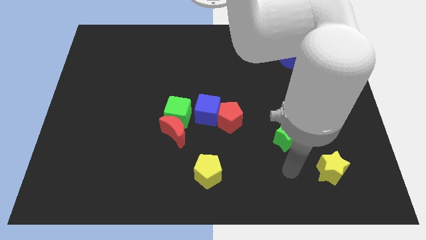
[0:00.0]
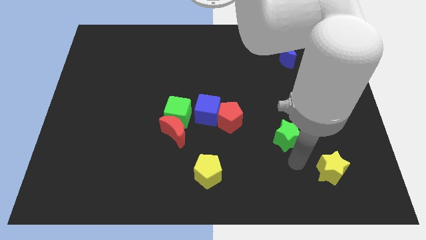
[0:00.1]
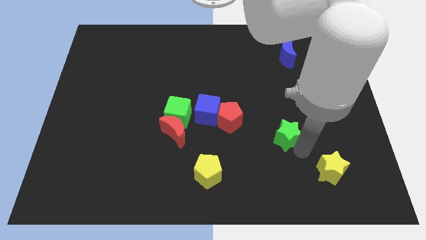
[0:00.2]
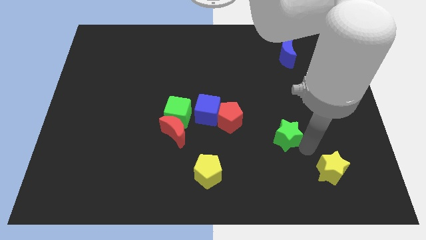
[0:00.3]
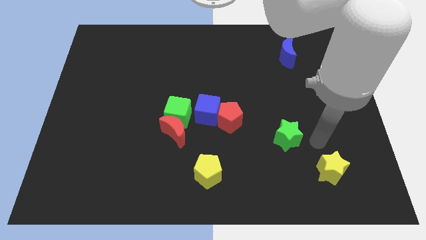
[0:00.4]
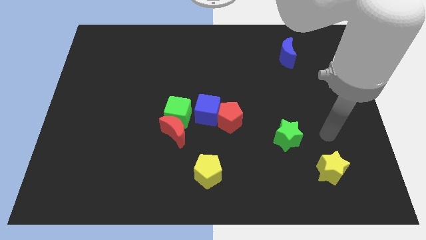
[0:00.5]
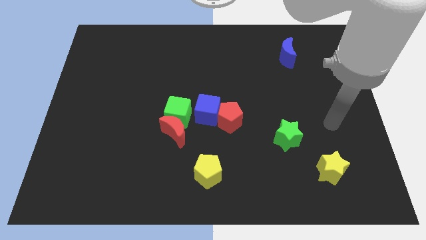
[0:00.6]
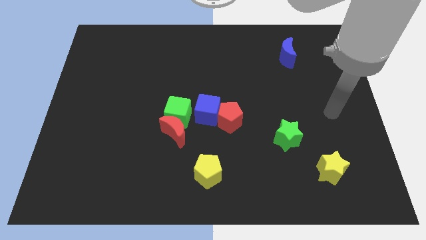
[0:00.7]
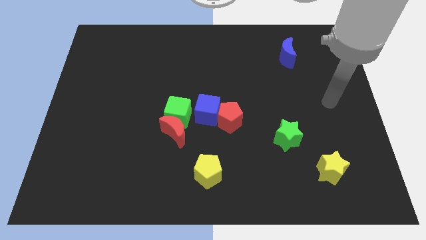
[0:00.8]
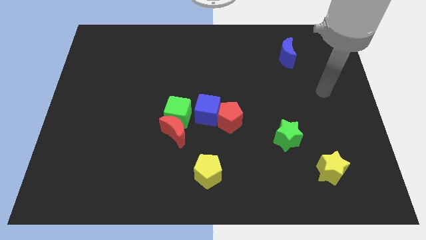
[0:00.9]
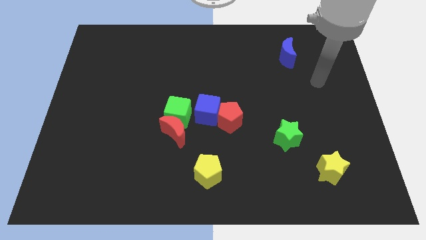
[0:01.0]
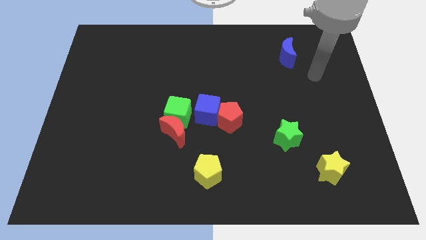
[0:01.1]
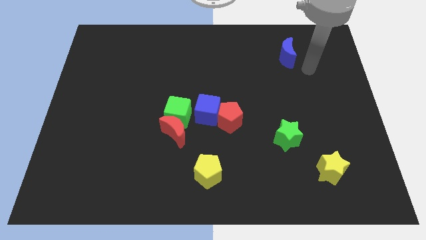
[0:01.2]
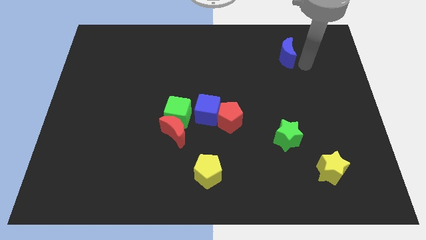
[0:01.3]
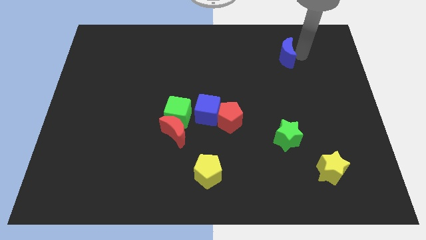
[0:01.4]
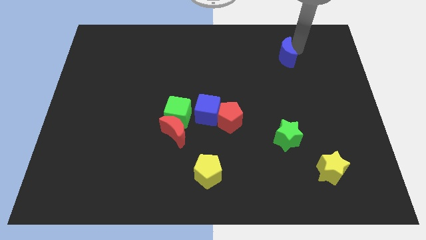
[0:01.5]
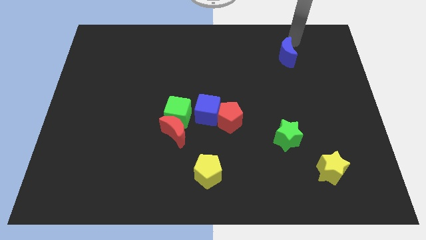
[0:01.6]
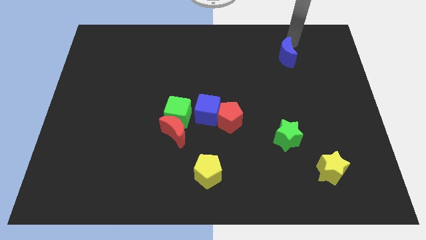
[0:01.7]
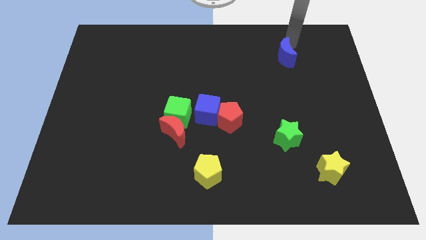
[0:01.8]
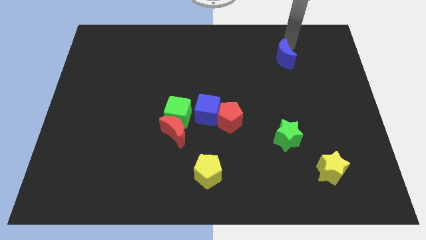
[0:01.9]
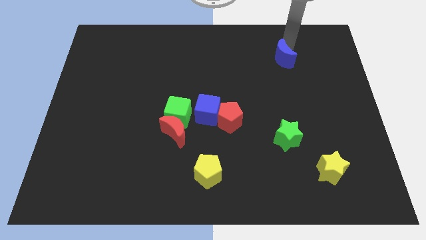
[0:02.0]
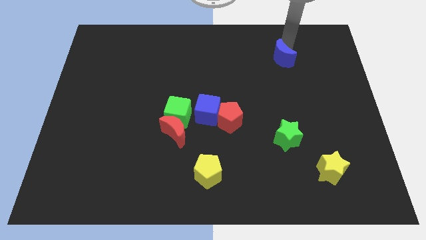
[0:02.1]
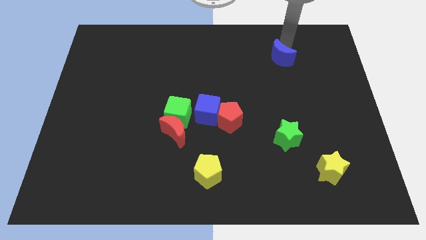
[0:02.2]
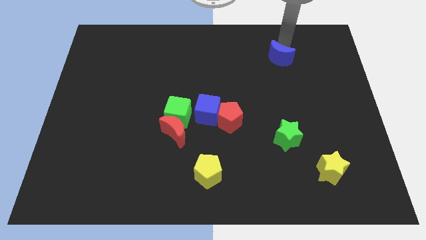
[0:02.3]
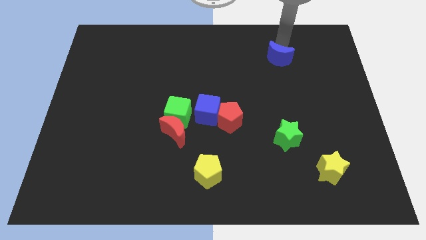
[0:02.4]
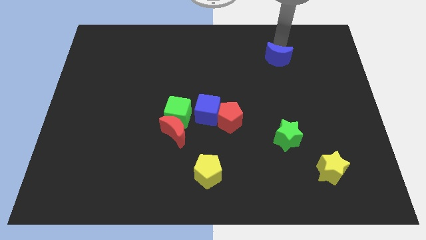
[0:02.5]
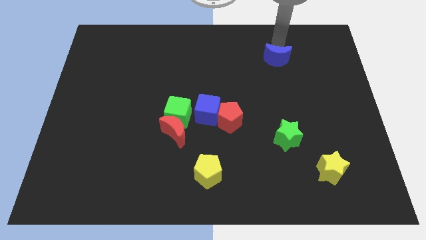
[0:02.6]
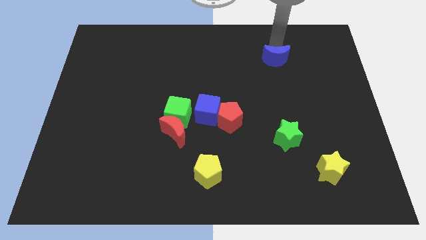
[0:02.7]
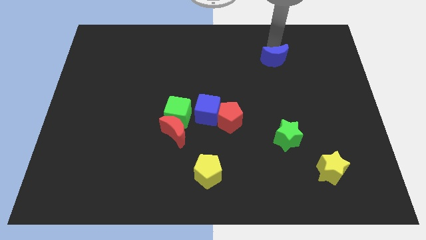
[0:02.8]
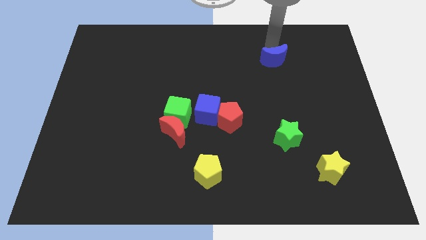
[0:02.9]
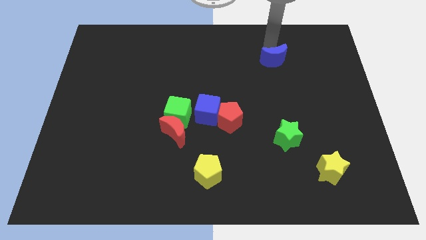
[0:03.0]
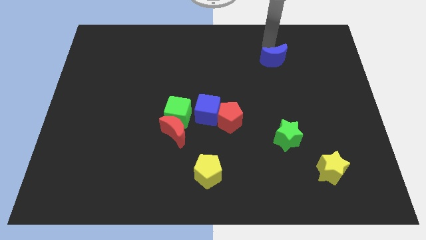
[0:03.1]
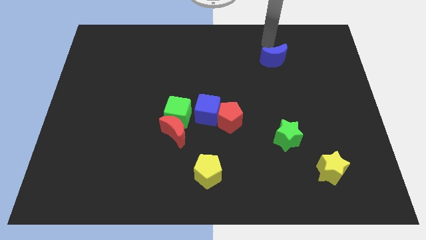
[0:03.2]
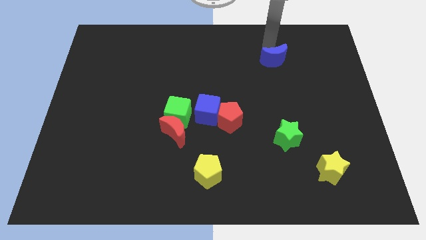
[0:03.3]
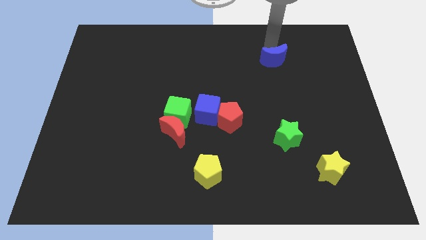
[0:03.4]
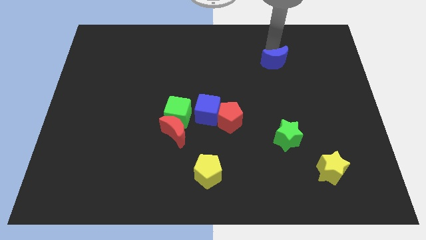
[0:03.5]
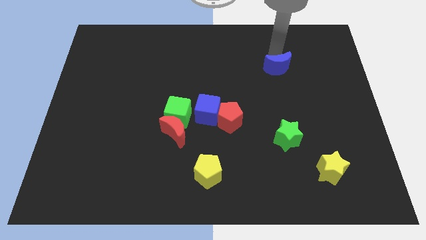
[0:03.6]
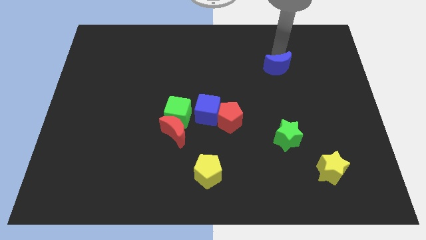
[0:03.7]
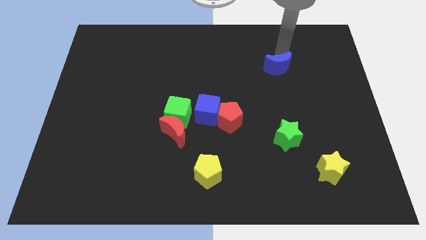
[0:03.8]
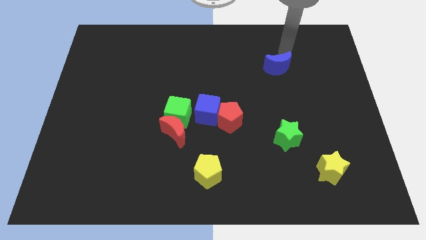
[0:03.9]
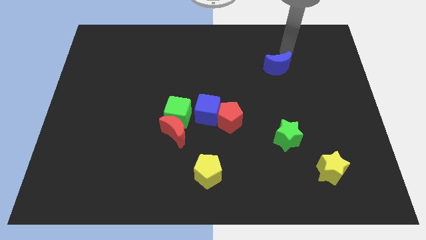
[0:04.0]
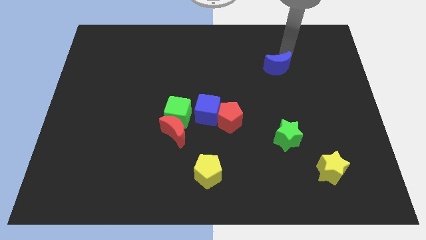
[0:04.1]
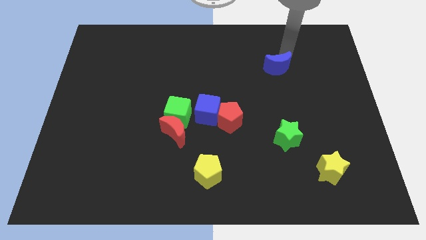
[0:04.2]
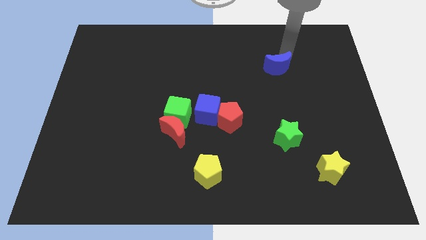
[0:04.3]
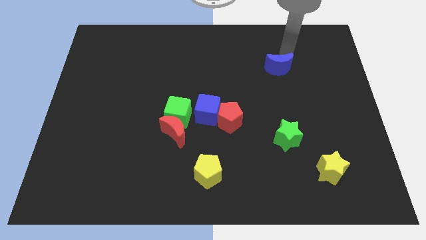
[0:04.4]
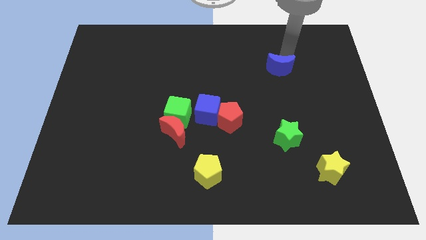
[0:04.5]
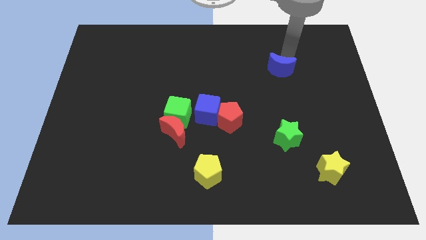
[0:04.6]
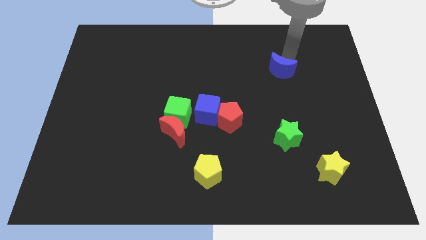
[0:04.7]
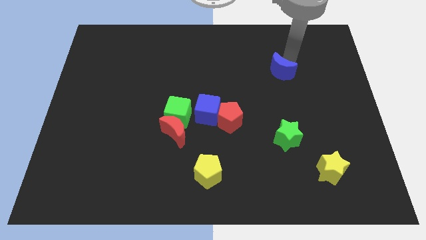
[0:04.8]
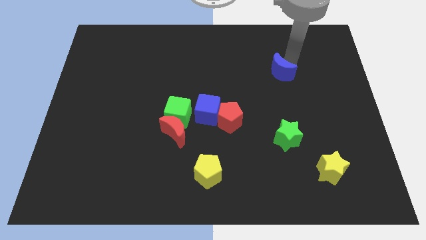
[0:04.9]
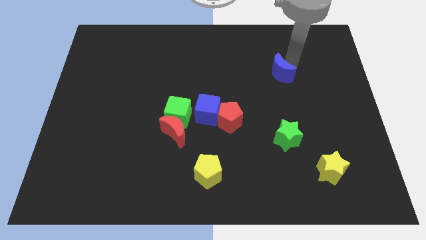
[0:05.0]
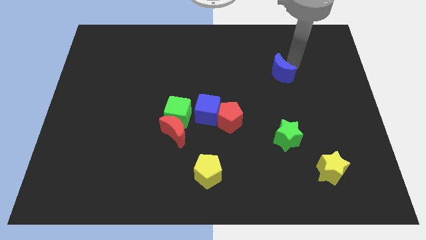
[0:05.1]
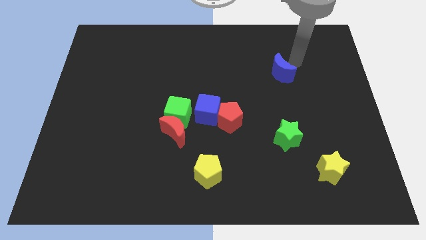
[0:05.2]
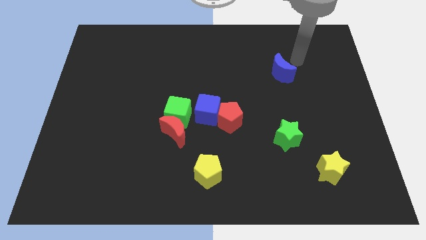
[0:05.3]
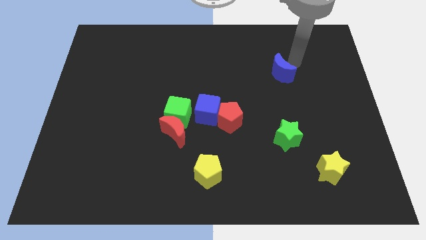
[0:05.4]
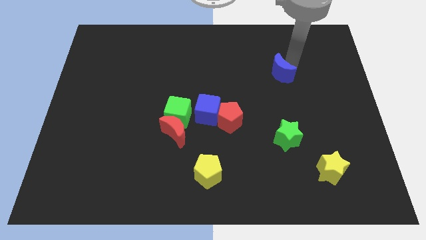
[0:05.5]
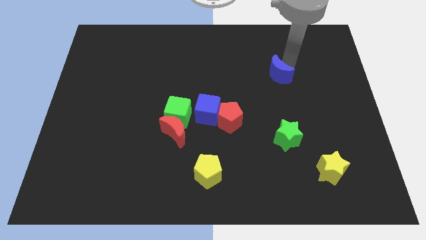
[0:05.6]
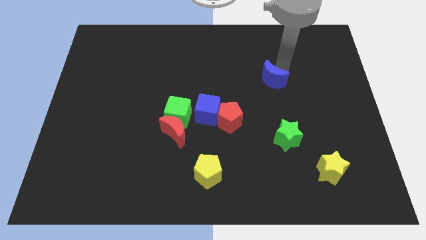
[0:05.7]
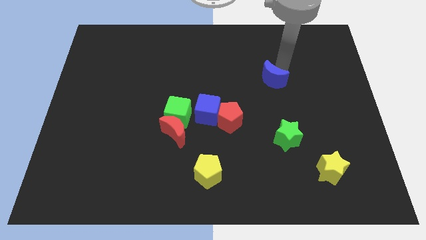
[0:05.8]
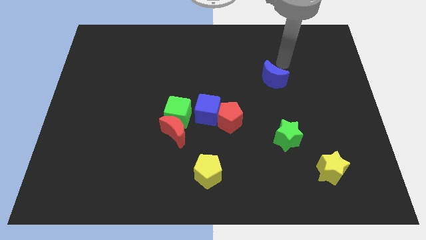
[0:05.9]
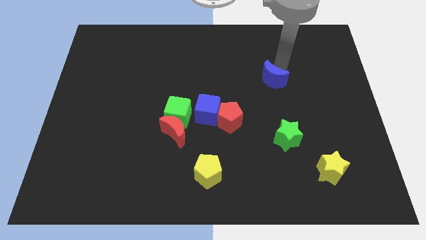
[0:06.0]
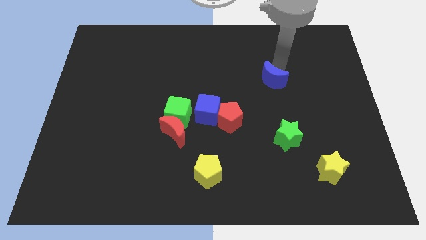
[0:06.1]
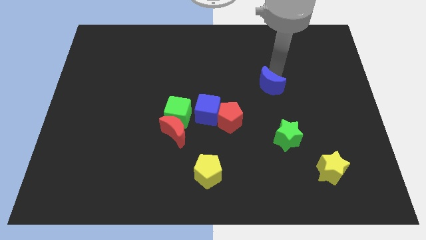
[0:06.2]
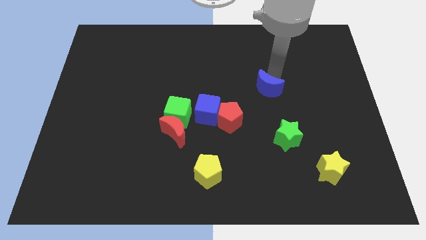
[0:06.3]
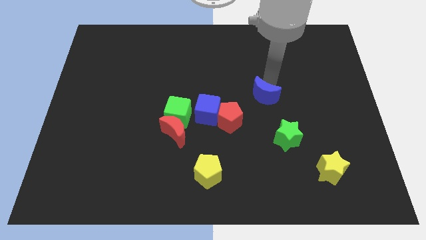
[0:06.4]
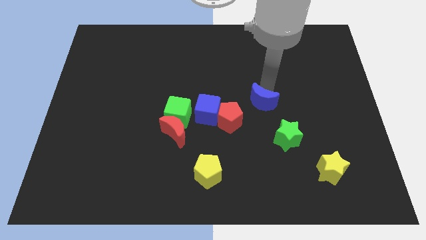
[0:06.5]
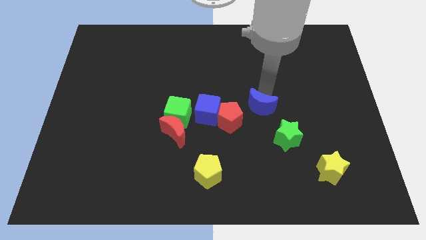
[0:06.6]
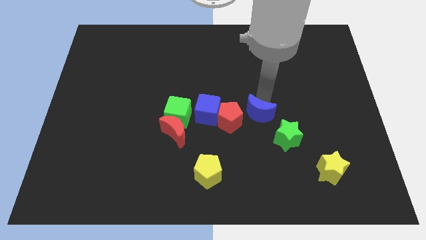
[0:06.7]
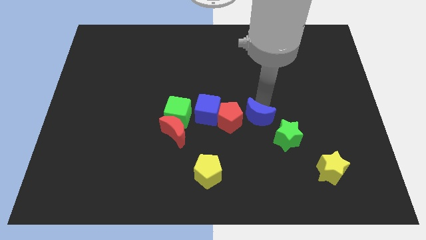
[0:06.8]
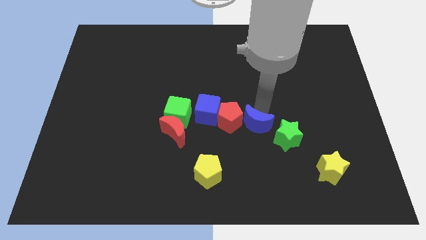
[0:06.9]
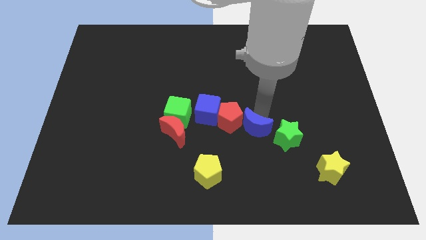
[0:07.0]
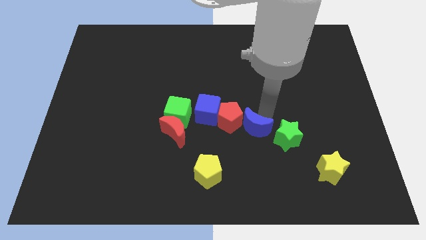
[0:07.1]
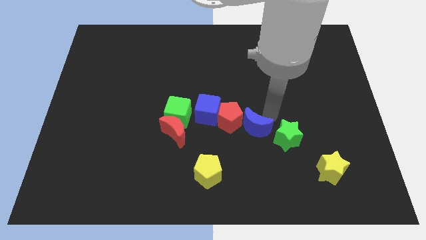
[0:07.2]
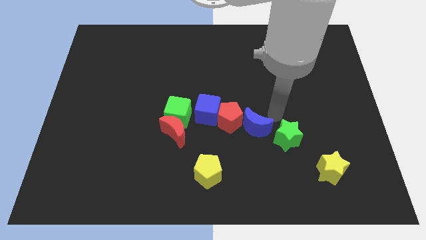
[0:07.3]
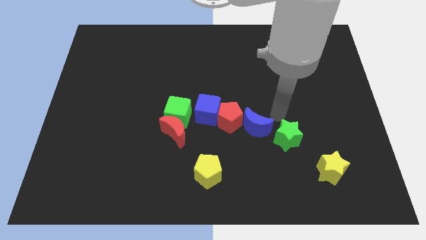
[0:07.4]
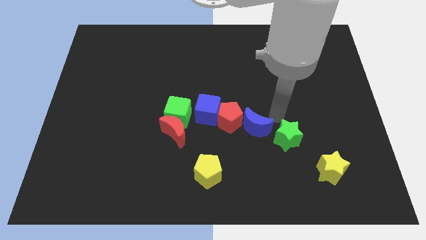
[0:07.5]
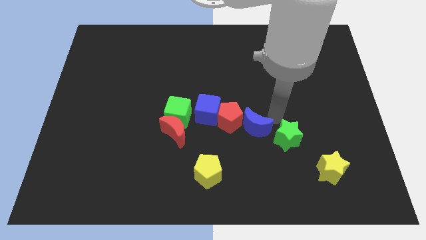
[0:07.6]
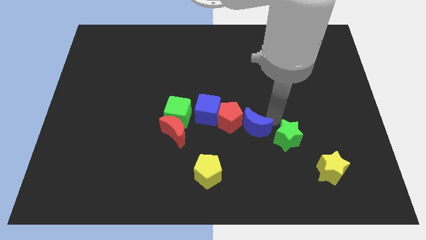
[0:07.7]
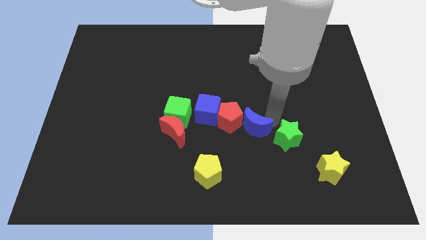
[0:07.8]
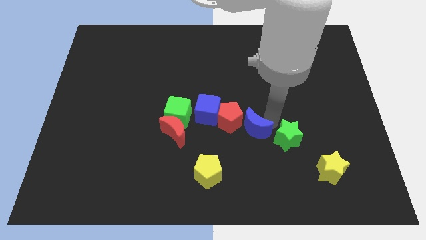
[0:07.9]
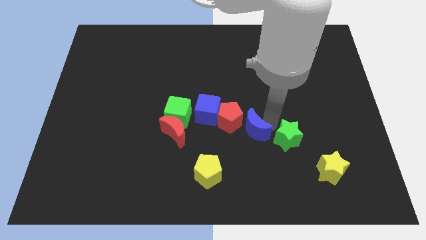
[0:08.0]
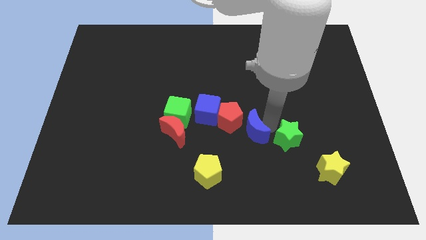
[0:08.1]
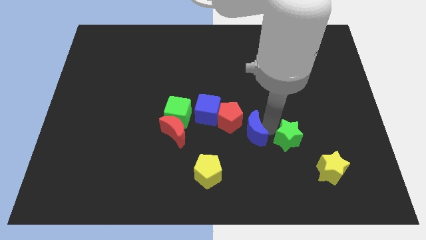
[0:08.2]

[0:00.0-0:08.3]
move the blue moon diagonally downwards and left
